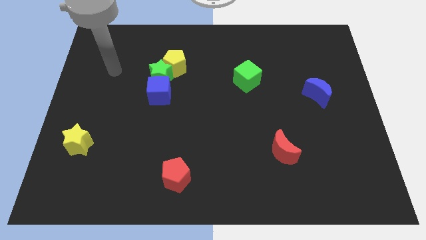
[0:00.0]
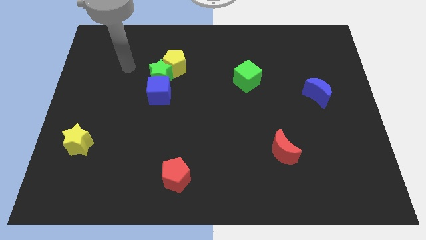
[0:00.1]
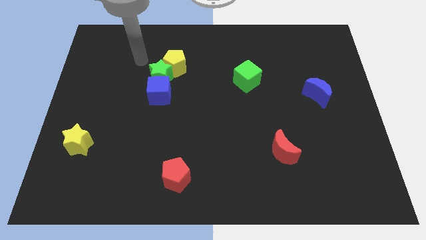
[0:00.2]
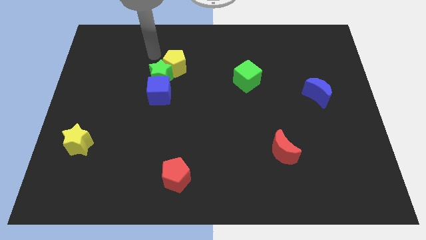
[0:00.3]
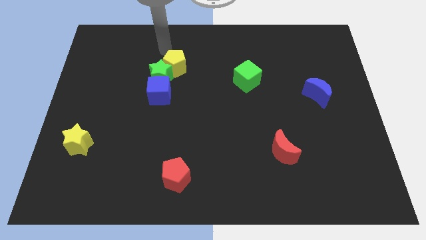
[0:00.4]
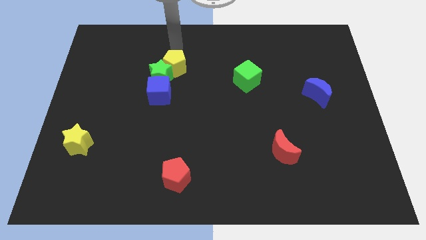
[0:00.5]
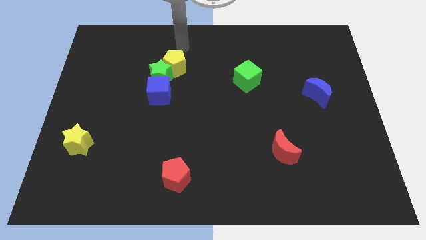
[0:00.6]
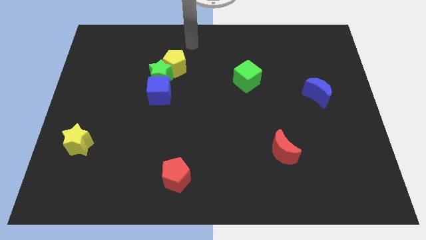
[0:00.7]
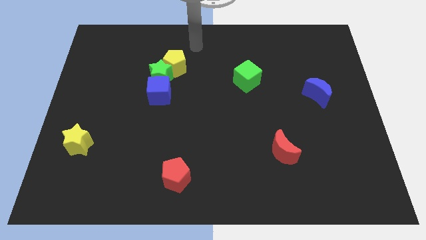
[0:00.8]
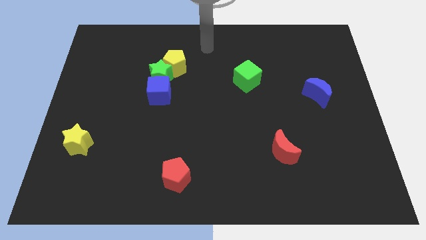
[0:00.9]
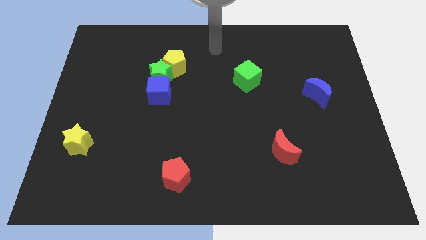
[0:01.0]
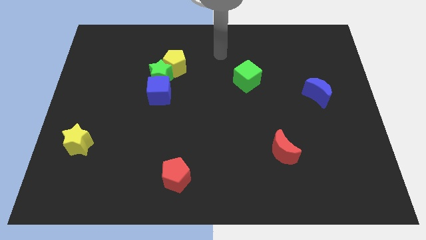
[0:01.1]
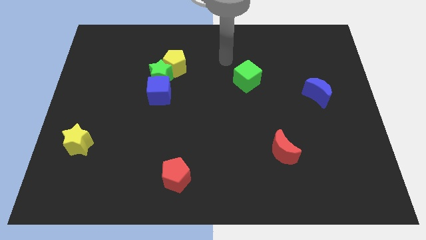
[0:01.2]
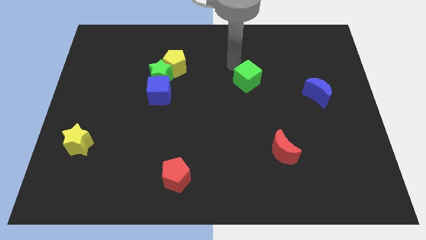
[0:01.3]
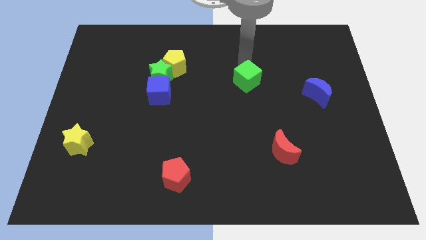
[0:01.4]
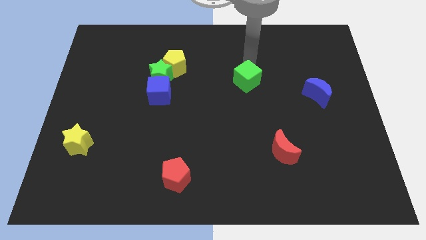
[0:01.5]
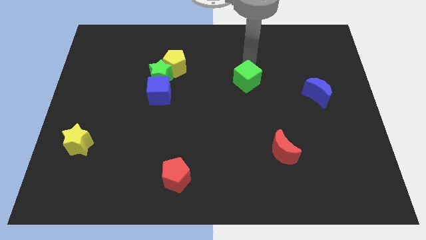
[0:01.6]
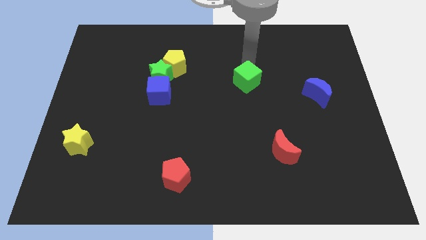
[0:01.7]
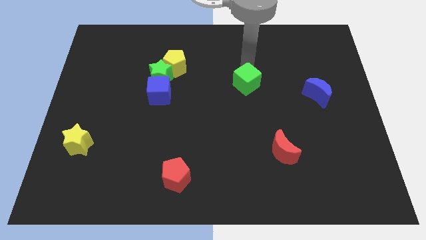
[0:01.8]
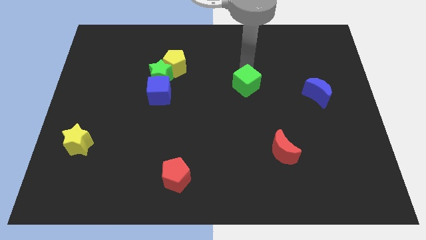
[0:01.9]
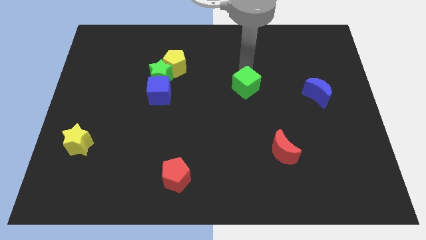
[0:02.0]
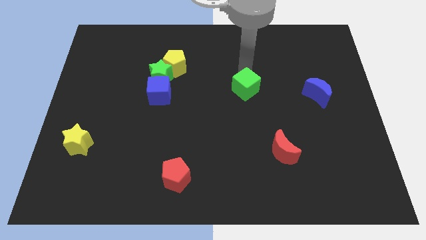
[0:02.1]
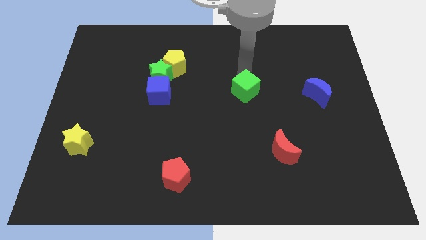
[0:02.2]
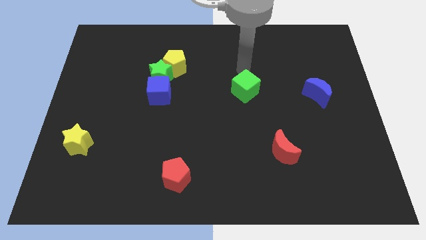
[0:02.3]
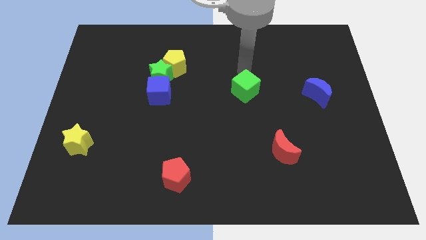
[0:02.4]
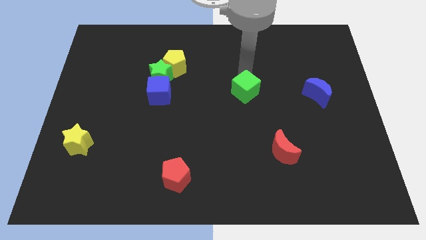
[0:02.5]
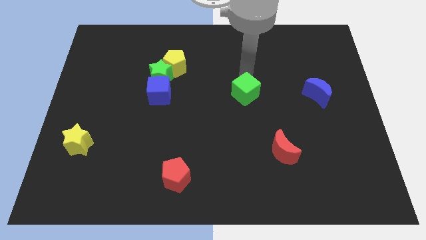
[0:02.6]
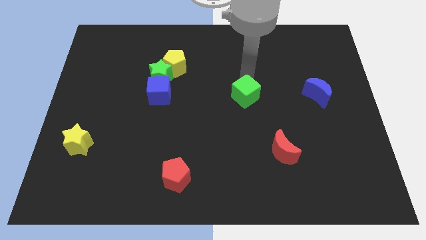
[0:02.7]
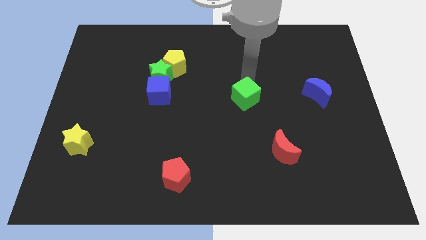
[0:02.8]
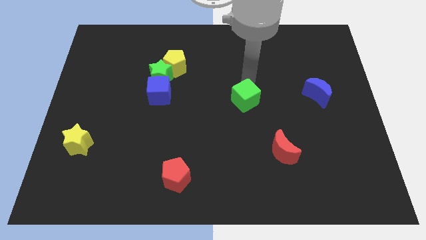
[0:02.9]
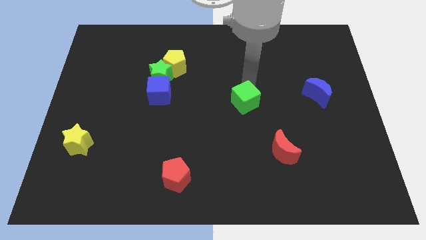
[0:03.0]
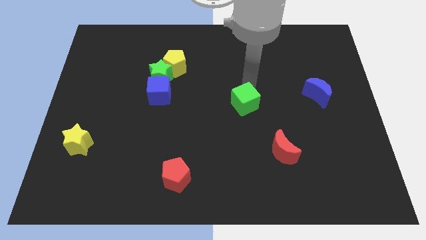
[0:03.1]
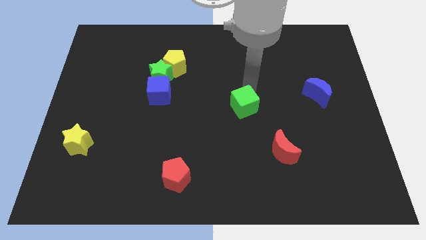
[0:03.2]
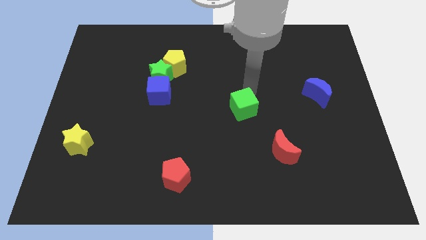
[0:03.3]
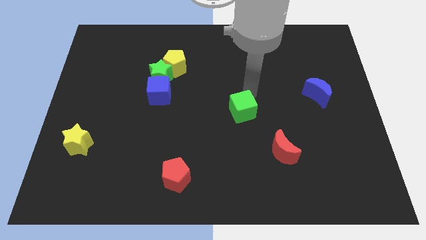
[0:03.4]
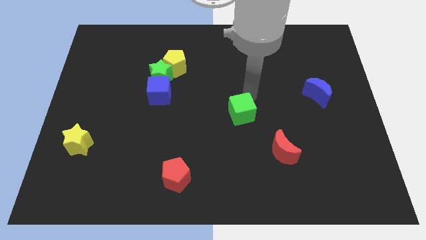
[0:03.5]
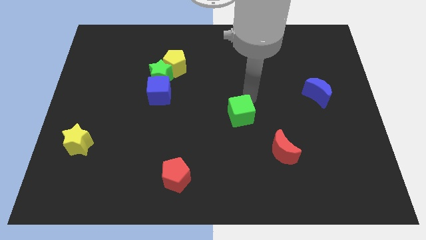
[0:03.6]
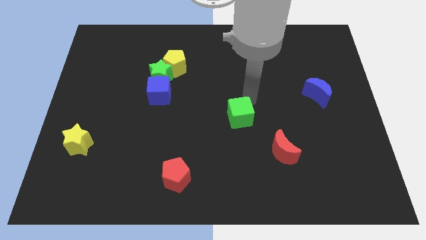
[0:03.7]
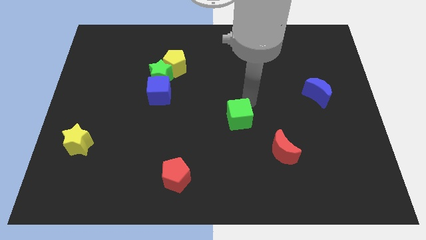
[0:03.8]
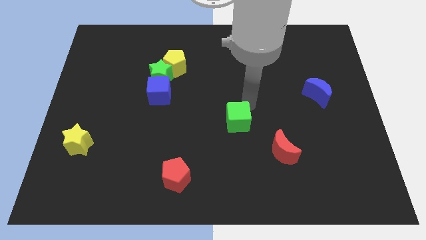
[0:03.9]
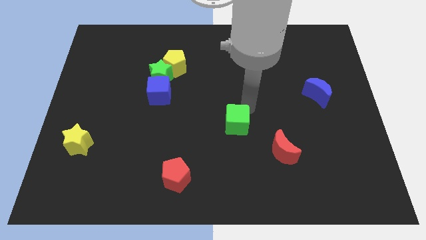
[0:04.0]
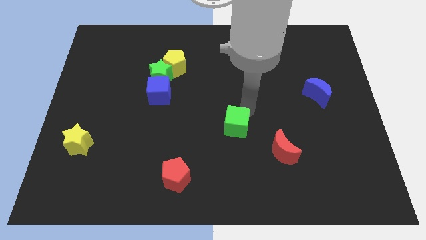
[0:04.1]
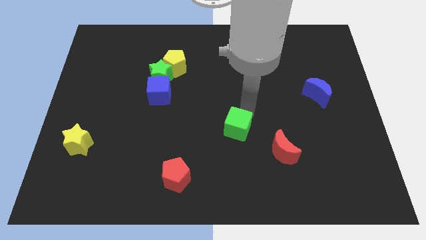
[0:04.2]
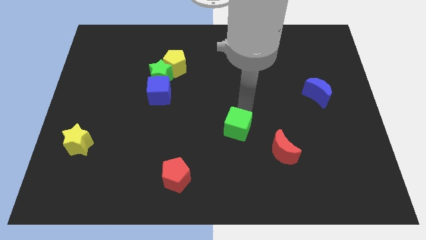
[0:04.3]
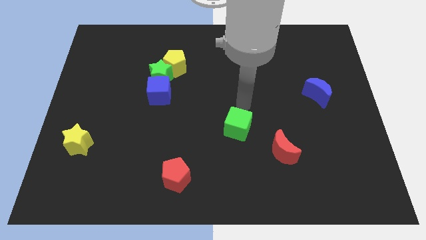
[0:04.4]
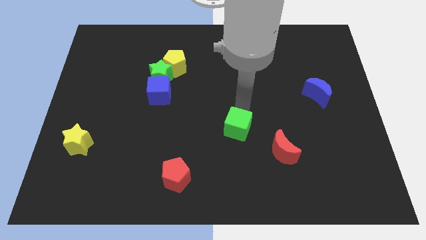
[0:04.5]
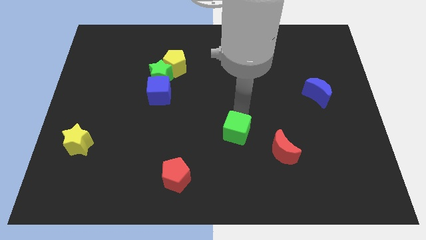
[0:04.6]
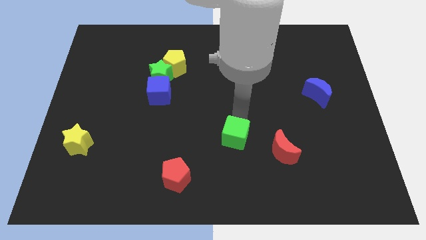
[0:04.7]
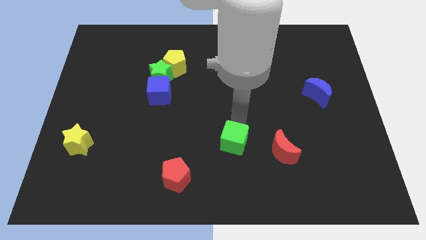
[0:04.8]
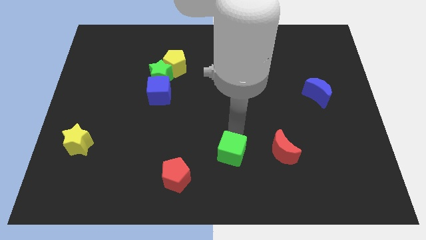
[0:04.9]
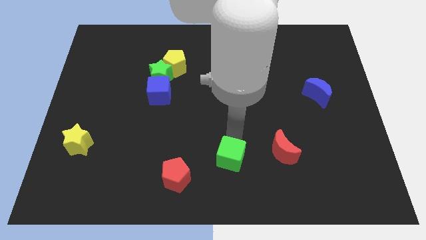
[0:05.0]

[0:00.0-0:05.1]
push the green cube to the bottom

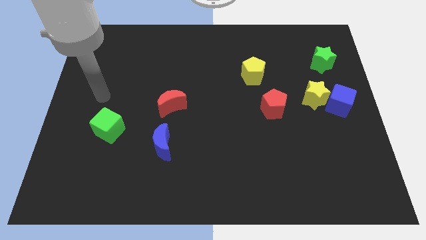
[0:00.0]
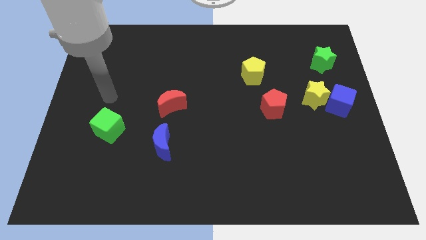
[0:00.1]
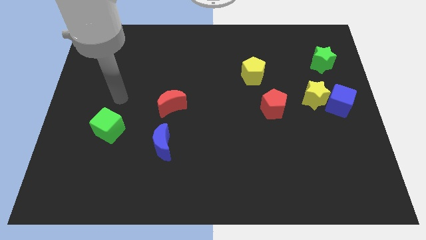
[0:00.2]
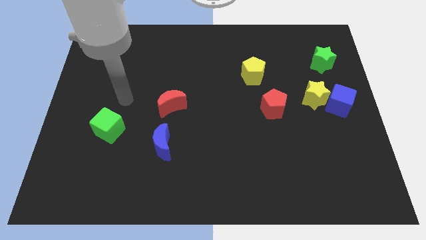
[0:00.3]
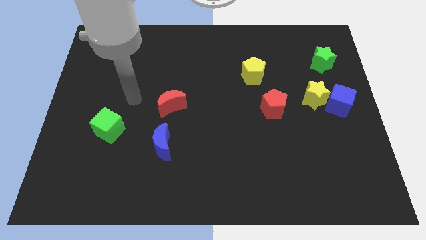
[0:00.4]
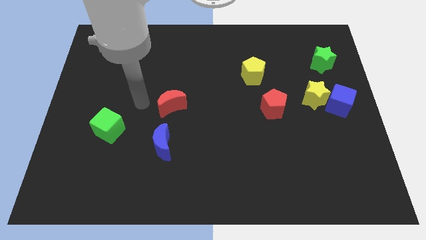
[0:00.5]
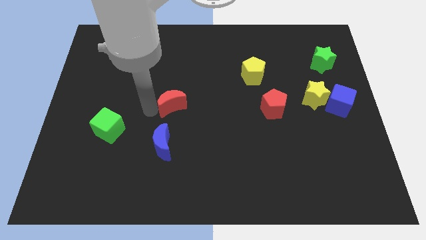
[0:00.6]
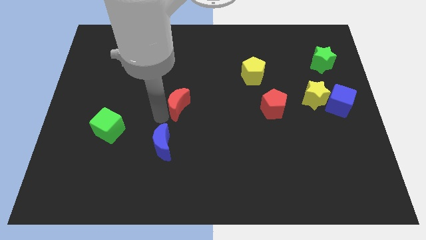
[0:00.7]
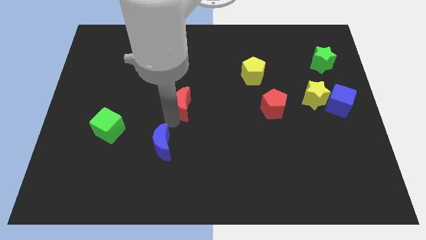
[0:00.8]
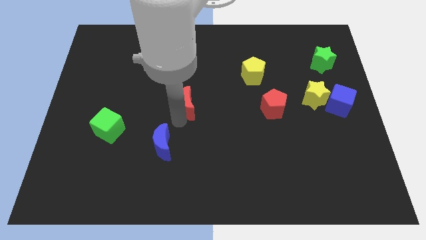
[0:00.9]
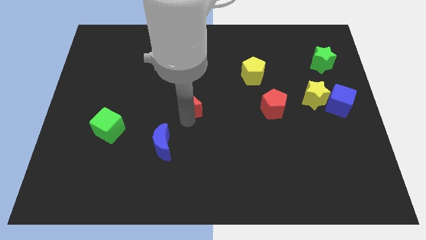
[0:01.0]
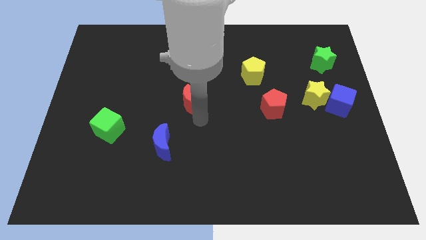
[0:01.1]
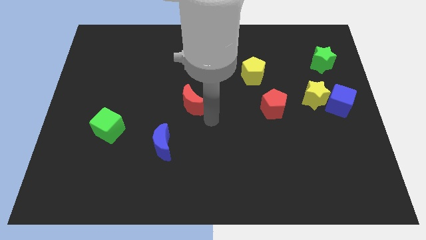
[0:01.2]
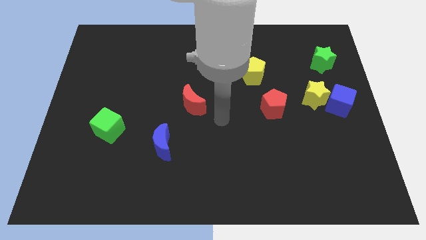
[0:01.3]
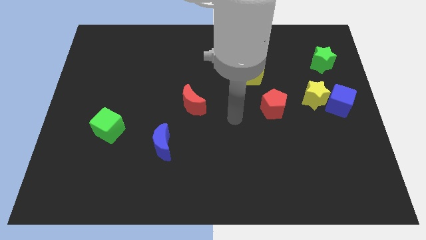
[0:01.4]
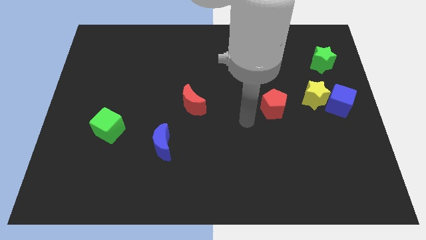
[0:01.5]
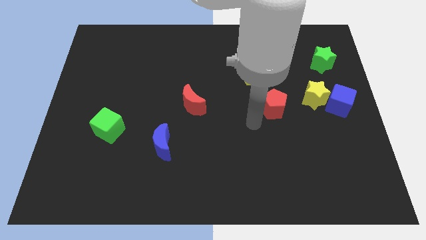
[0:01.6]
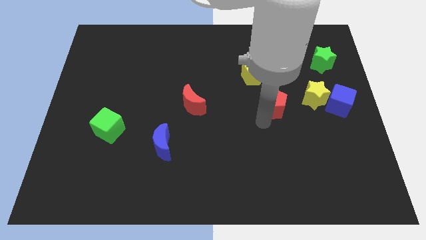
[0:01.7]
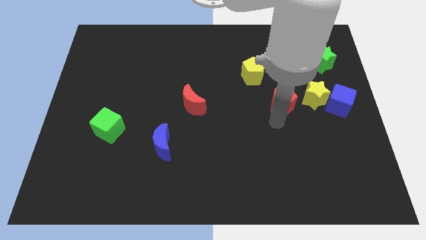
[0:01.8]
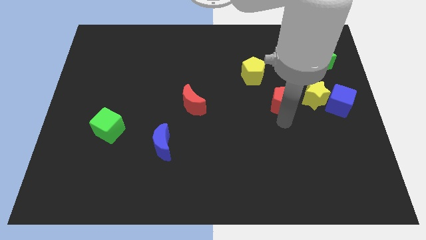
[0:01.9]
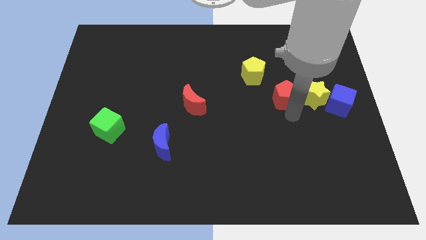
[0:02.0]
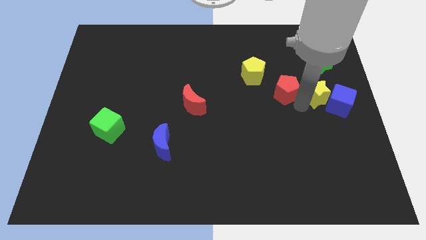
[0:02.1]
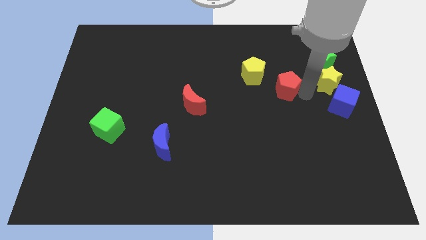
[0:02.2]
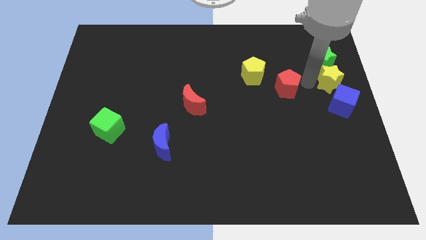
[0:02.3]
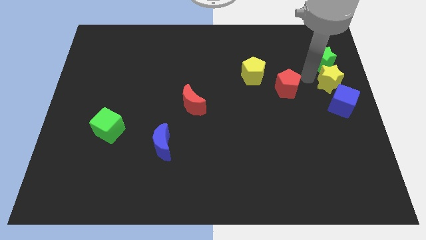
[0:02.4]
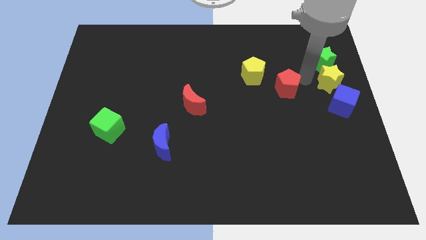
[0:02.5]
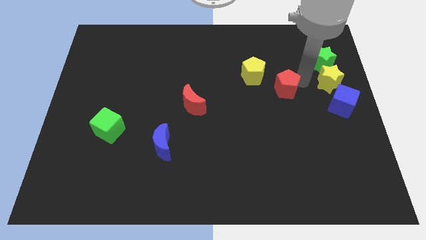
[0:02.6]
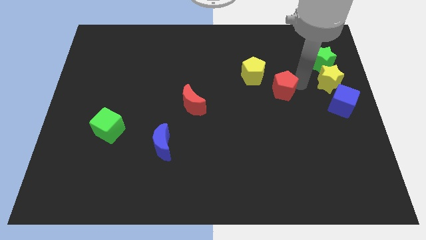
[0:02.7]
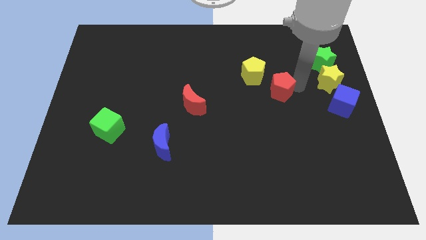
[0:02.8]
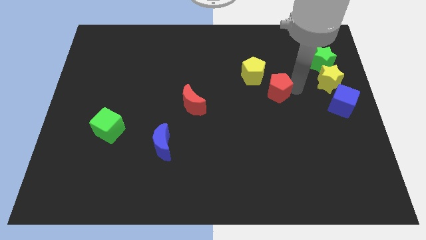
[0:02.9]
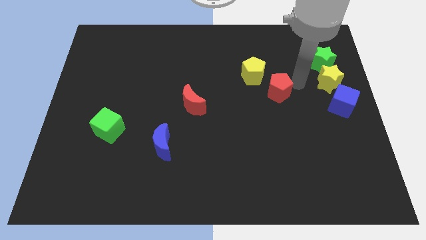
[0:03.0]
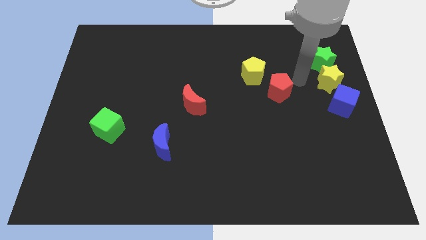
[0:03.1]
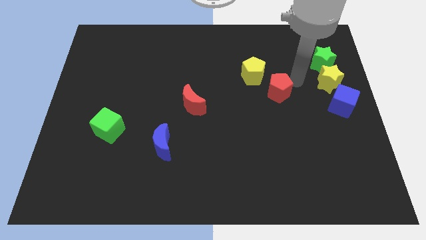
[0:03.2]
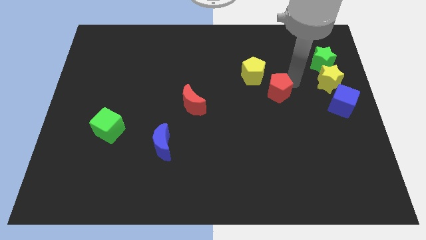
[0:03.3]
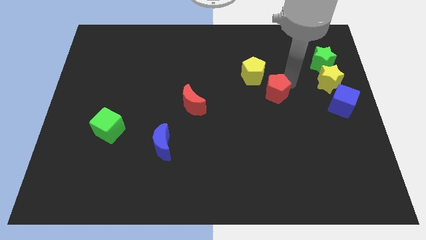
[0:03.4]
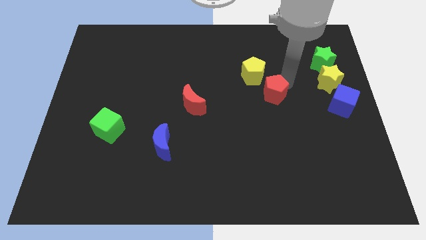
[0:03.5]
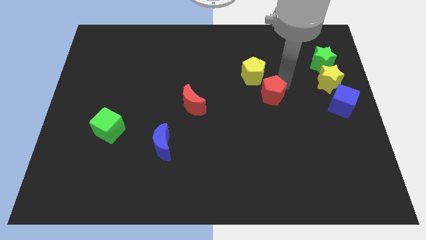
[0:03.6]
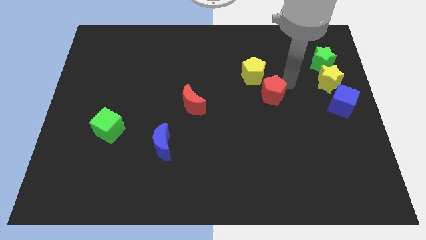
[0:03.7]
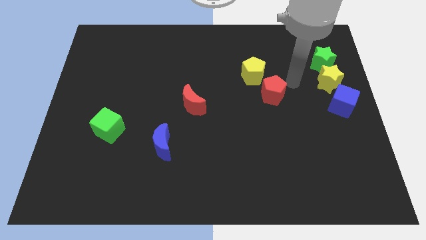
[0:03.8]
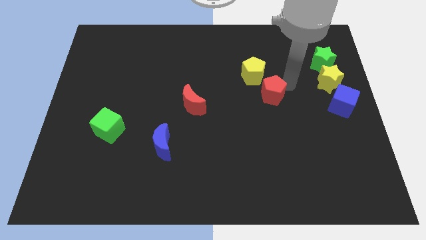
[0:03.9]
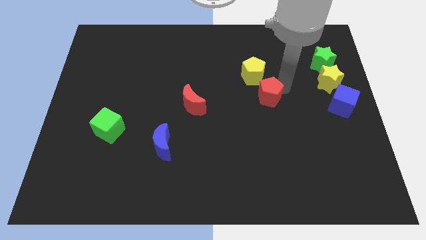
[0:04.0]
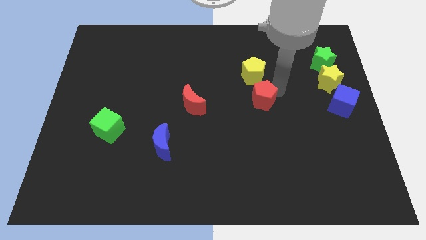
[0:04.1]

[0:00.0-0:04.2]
put the red pentagon to the center of the board
